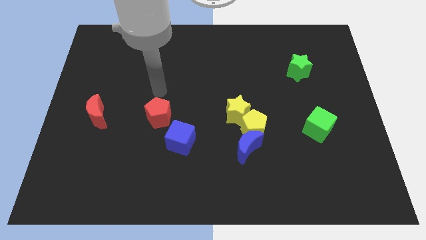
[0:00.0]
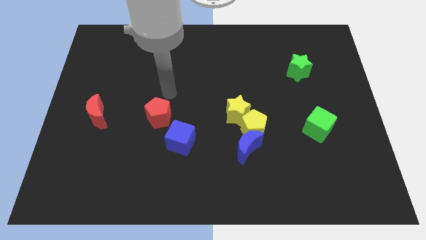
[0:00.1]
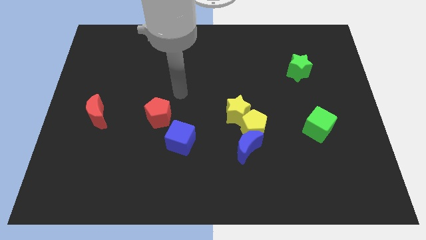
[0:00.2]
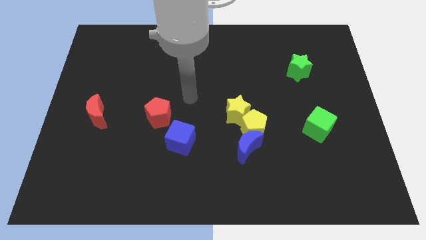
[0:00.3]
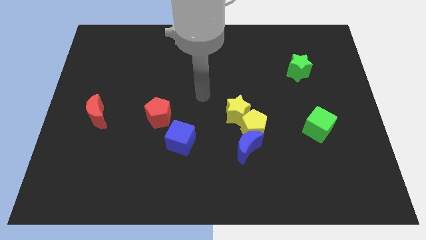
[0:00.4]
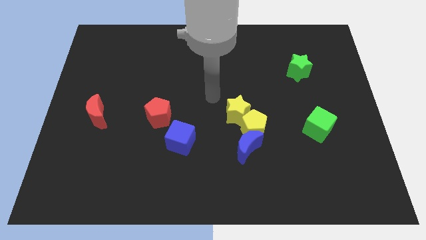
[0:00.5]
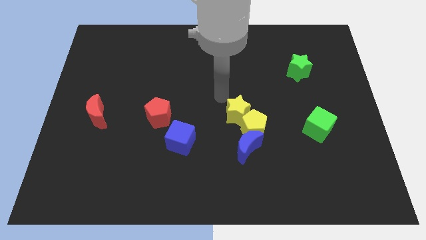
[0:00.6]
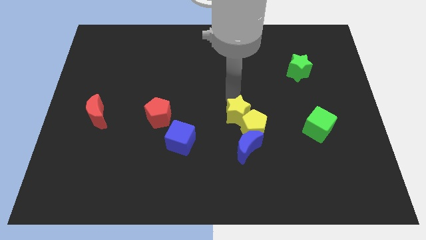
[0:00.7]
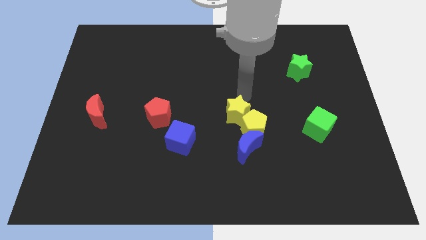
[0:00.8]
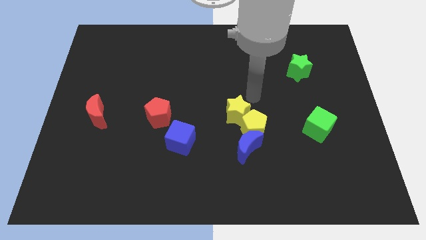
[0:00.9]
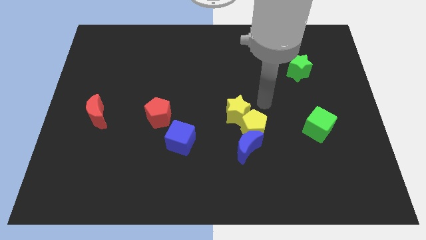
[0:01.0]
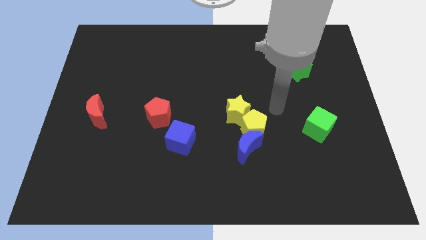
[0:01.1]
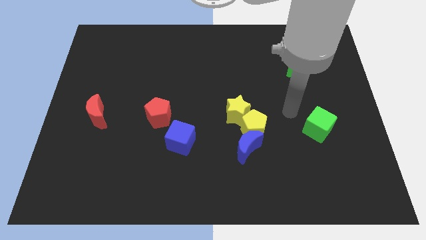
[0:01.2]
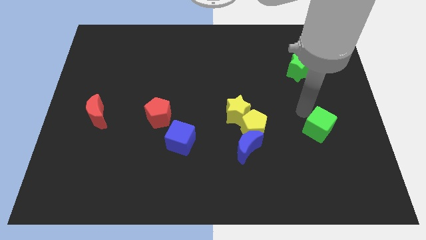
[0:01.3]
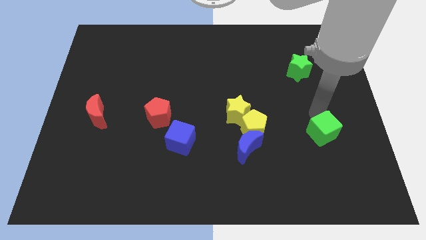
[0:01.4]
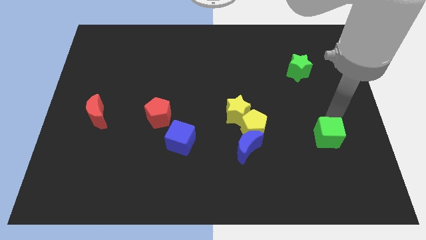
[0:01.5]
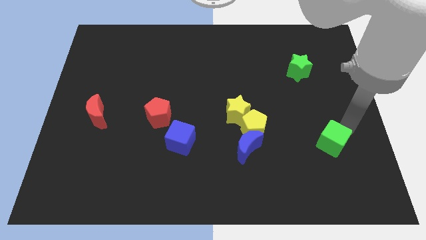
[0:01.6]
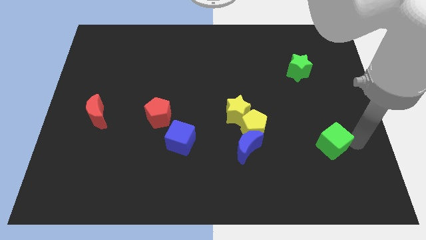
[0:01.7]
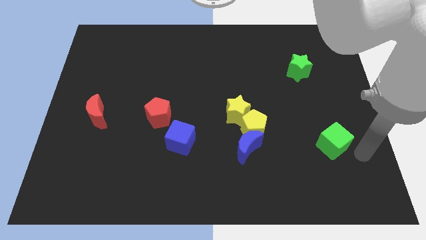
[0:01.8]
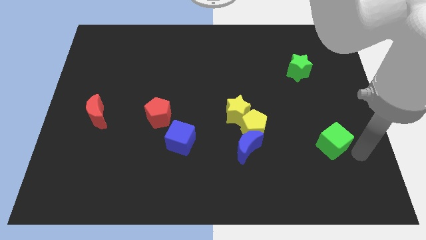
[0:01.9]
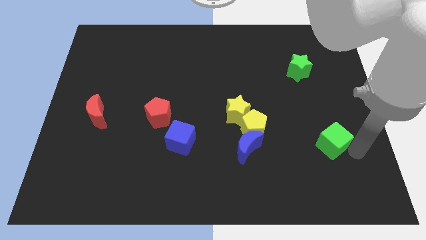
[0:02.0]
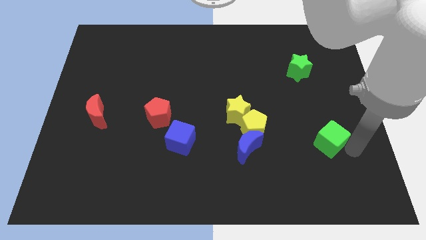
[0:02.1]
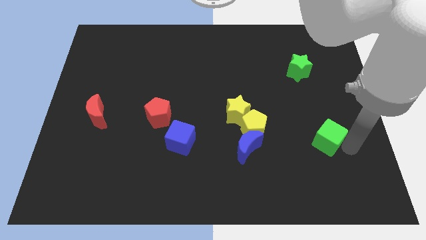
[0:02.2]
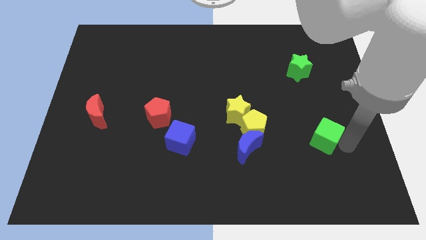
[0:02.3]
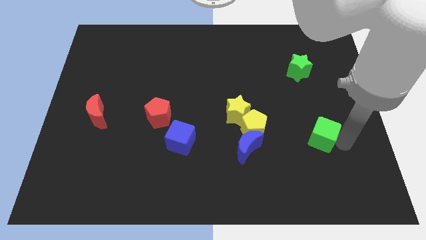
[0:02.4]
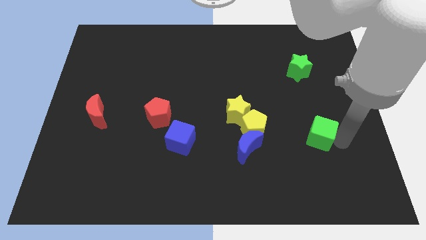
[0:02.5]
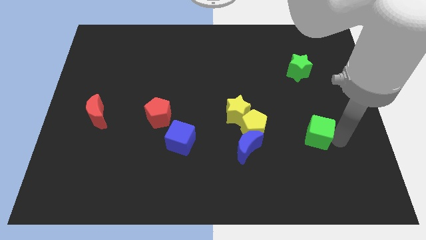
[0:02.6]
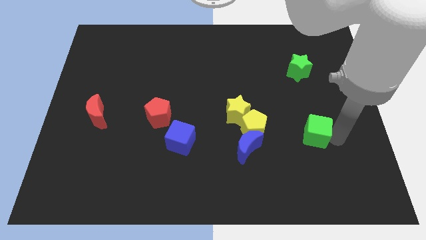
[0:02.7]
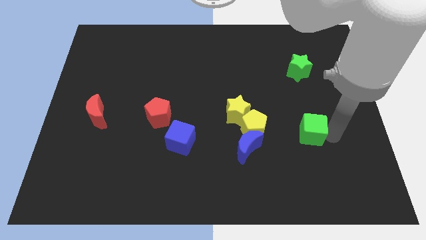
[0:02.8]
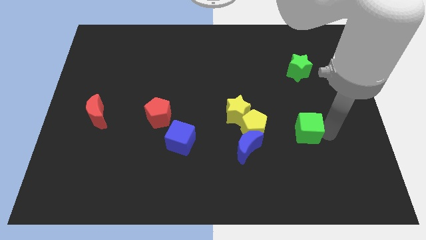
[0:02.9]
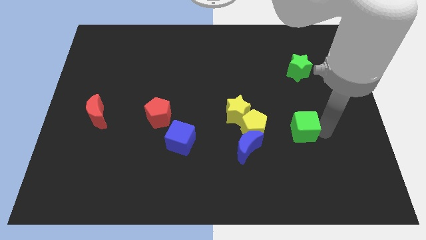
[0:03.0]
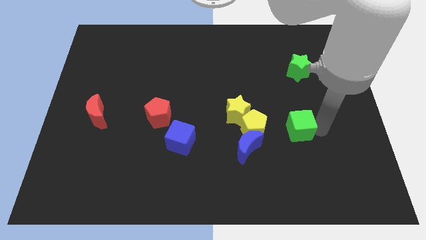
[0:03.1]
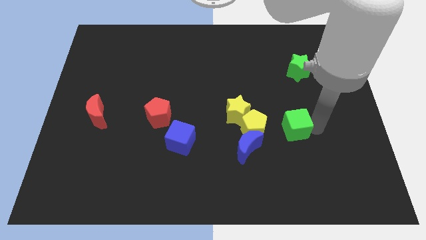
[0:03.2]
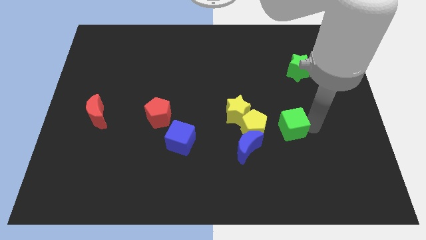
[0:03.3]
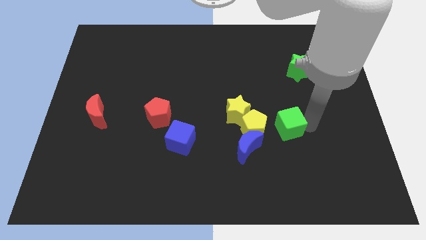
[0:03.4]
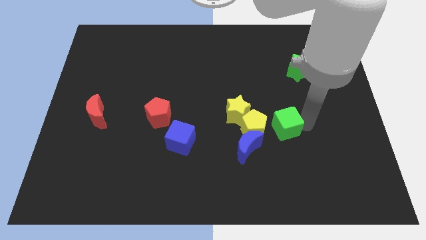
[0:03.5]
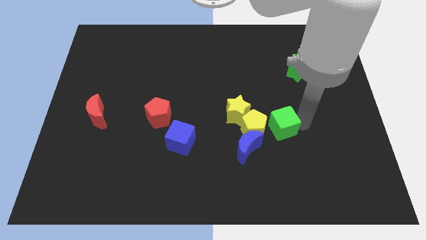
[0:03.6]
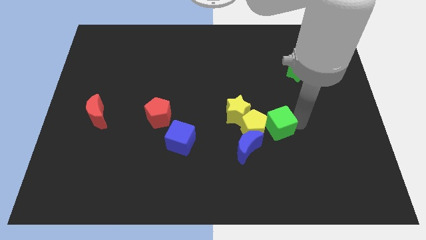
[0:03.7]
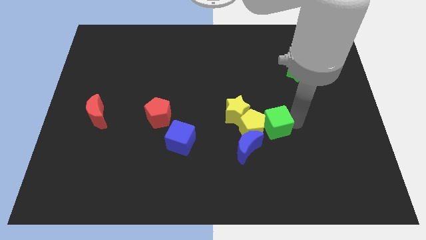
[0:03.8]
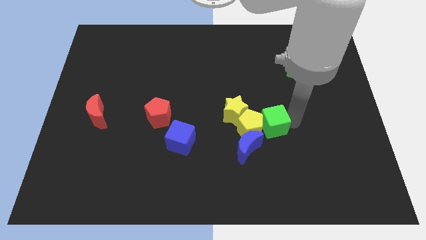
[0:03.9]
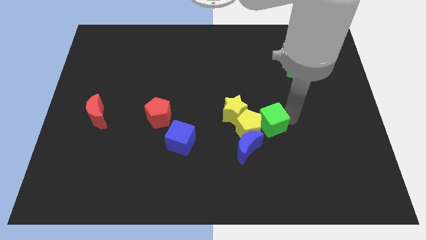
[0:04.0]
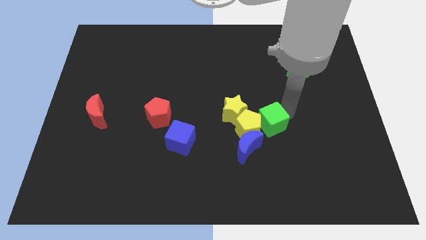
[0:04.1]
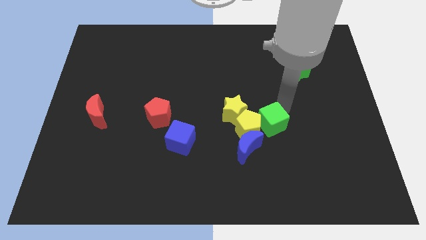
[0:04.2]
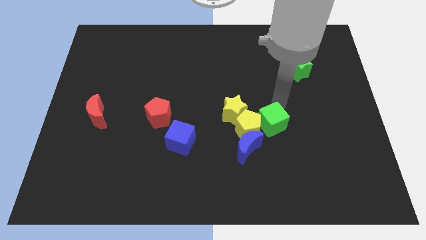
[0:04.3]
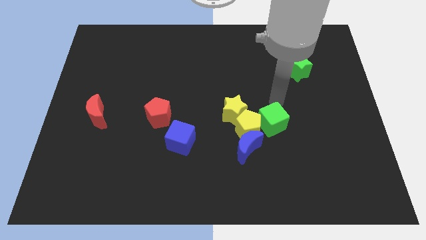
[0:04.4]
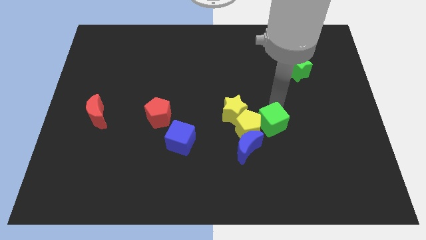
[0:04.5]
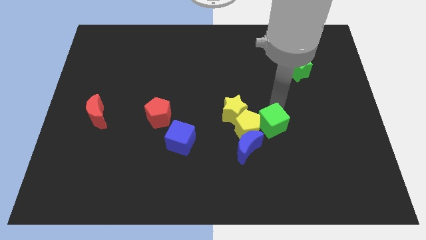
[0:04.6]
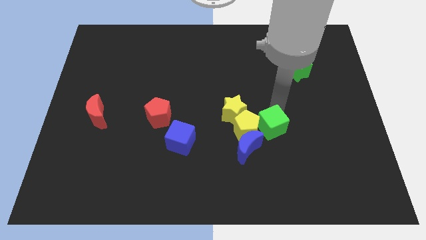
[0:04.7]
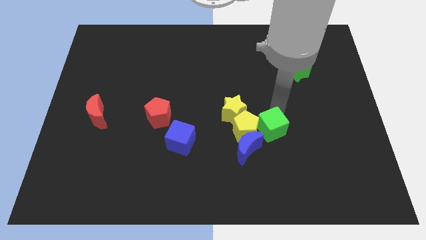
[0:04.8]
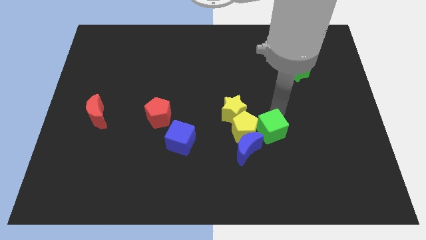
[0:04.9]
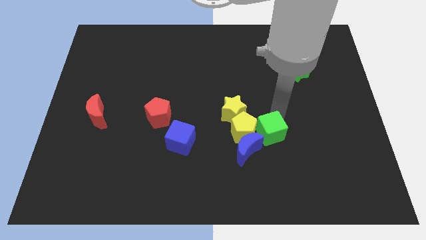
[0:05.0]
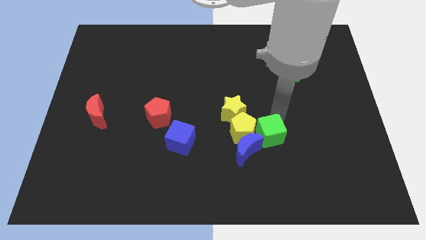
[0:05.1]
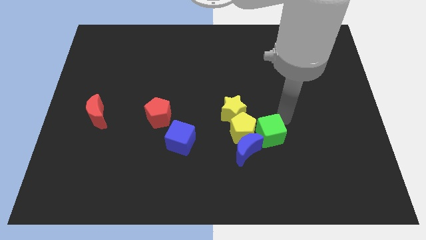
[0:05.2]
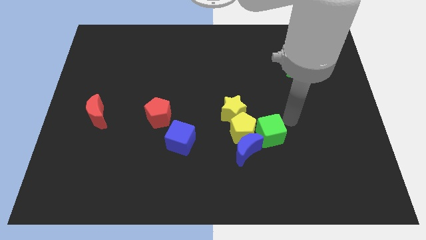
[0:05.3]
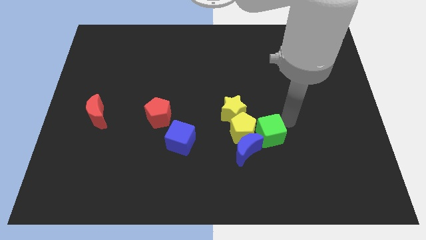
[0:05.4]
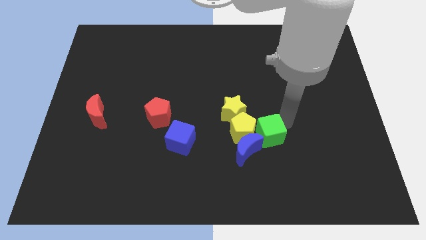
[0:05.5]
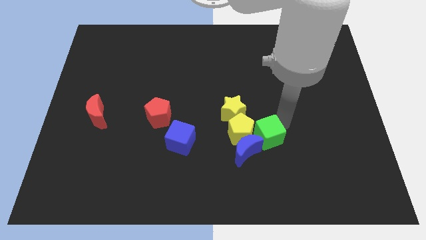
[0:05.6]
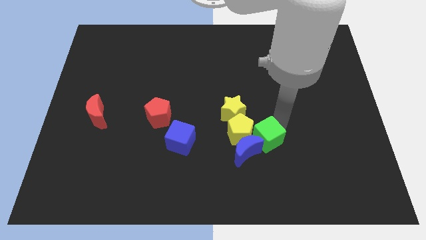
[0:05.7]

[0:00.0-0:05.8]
slide the green cube next to the blue moon
